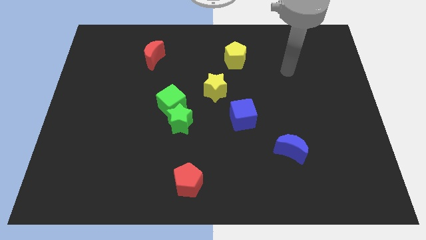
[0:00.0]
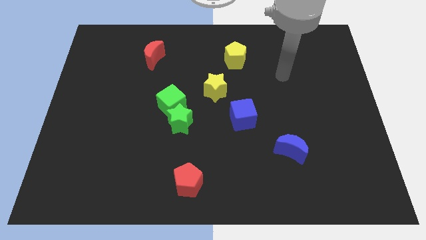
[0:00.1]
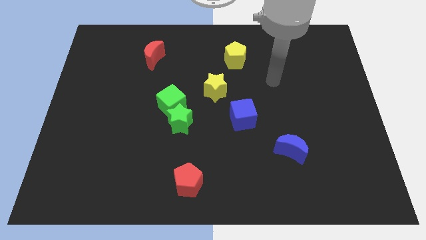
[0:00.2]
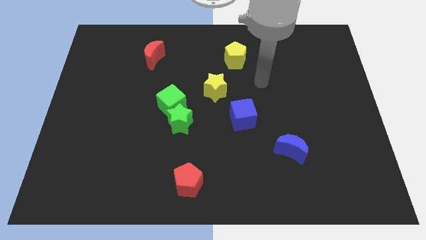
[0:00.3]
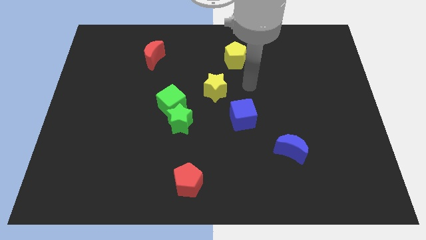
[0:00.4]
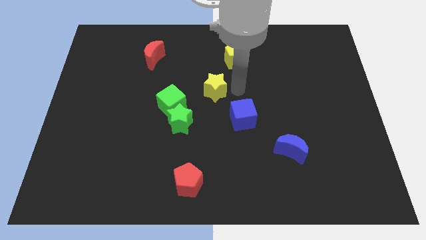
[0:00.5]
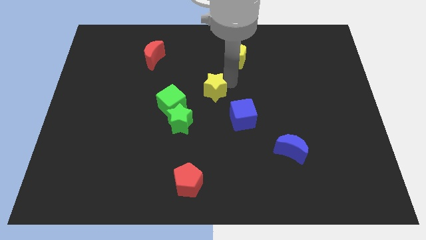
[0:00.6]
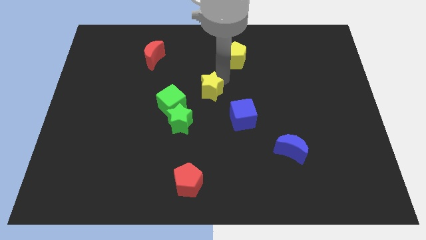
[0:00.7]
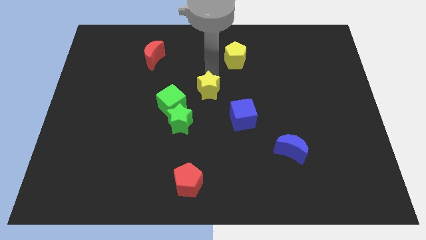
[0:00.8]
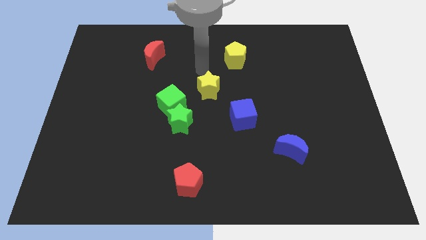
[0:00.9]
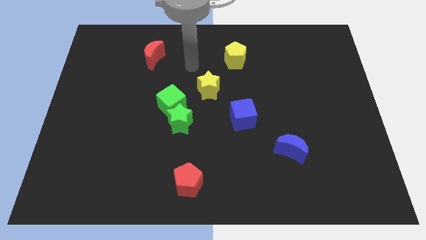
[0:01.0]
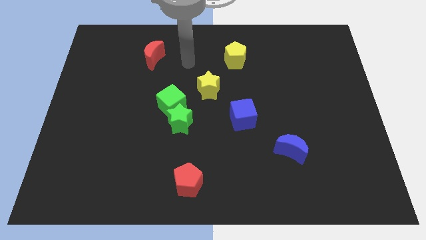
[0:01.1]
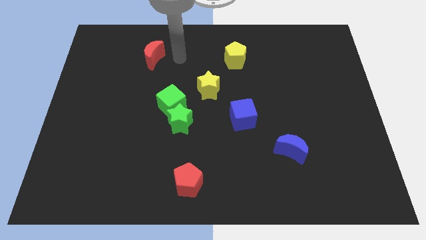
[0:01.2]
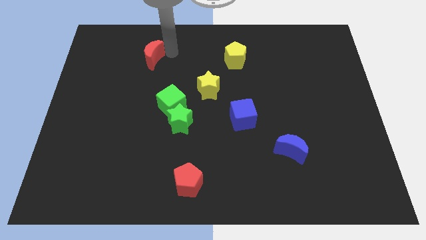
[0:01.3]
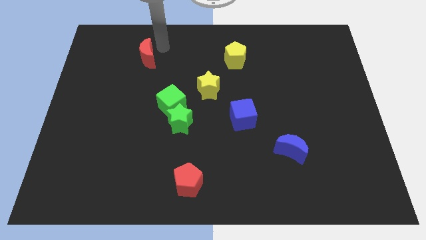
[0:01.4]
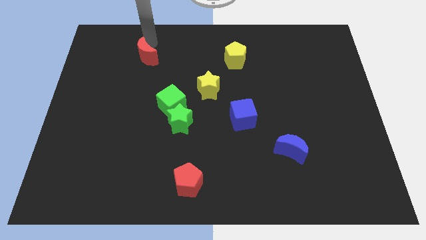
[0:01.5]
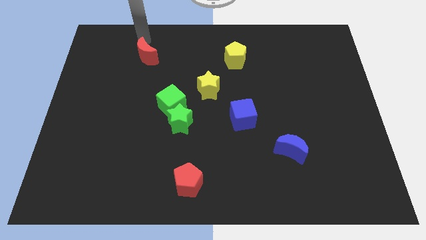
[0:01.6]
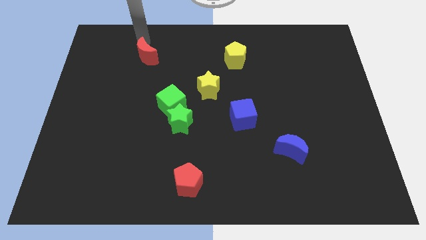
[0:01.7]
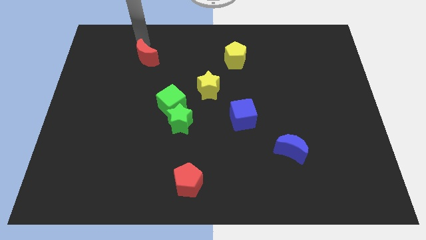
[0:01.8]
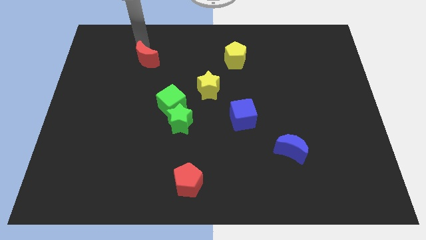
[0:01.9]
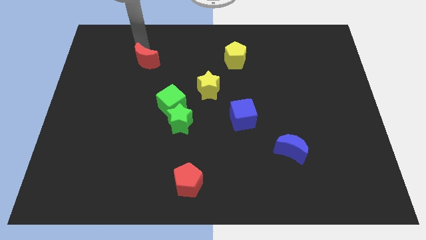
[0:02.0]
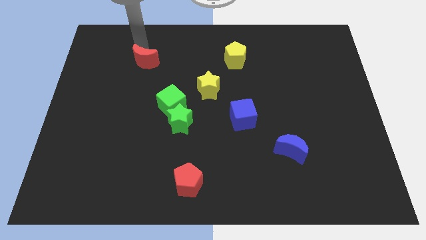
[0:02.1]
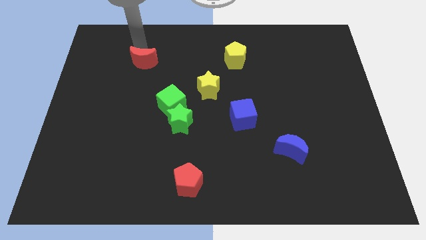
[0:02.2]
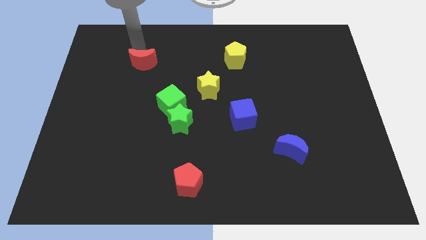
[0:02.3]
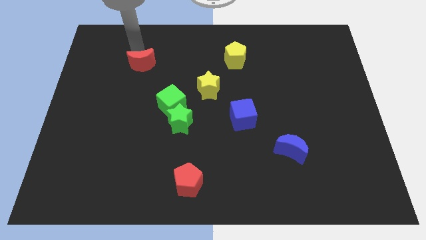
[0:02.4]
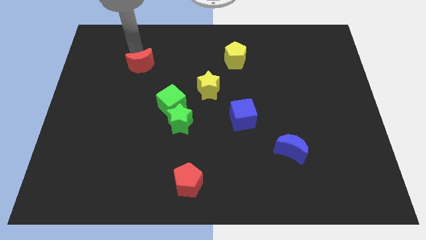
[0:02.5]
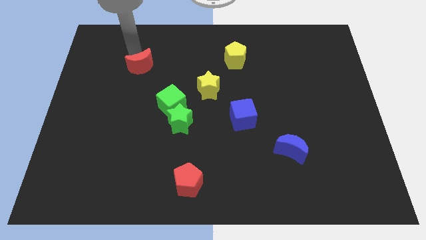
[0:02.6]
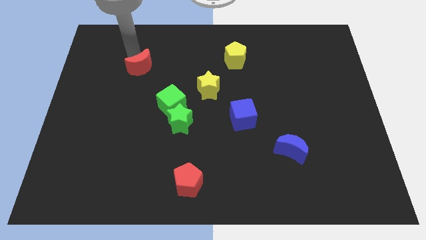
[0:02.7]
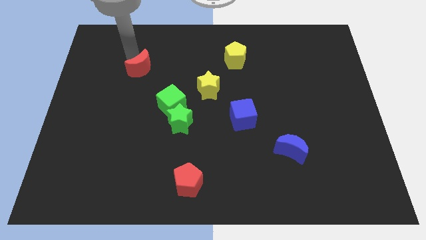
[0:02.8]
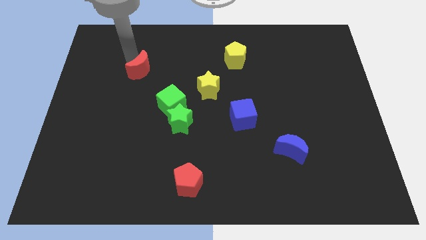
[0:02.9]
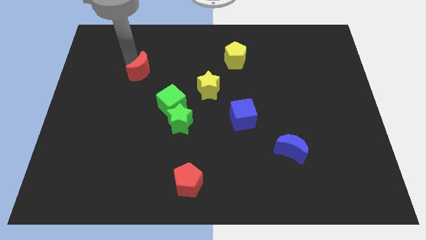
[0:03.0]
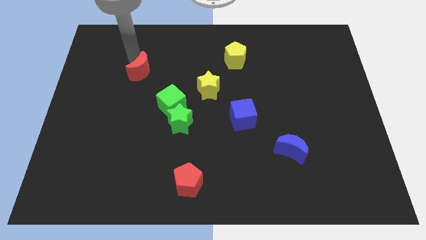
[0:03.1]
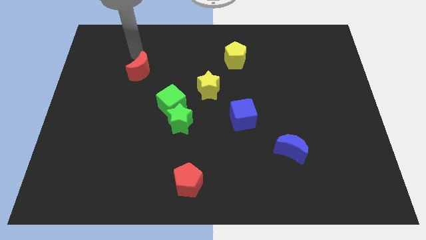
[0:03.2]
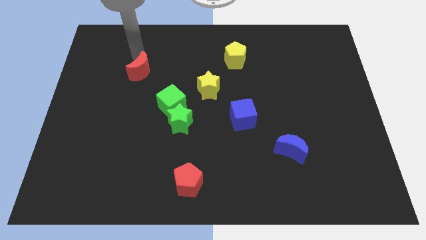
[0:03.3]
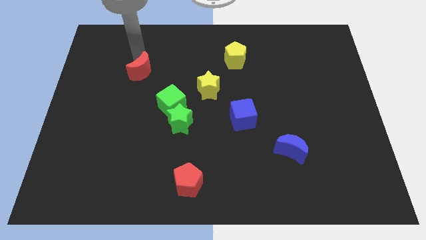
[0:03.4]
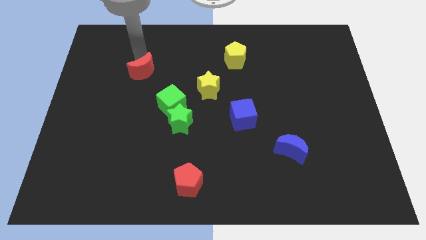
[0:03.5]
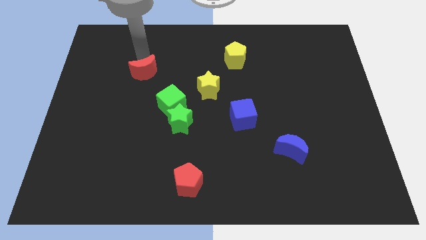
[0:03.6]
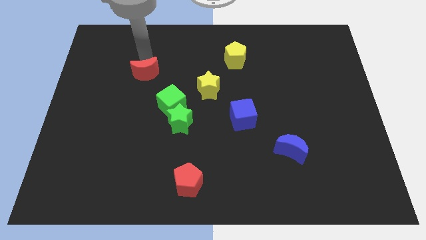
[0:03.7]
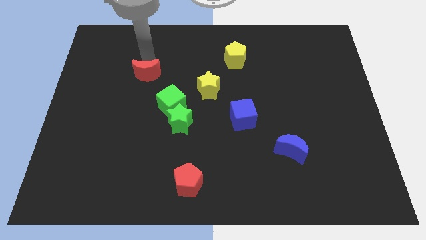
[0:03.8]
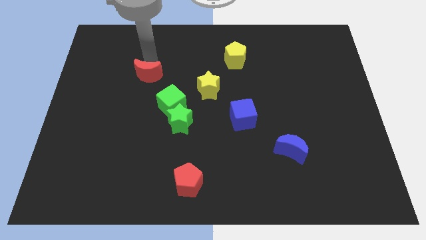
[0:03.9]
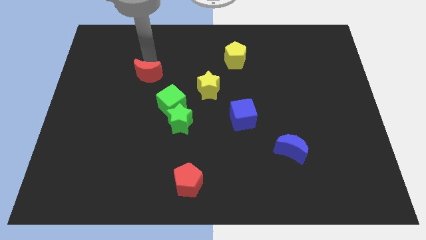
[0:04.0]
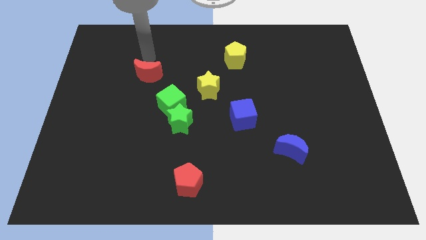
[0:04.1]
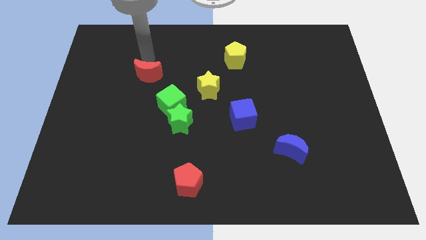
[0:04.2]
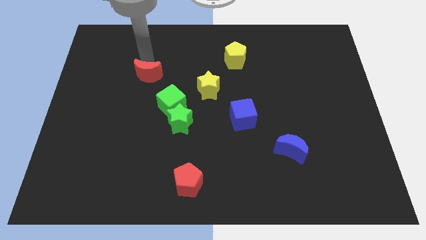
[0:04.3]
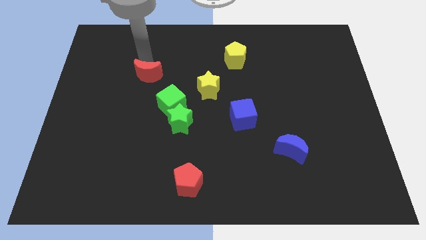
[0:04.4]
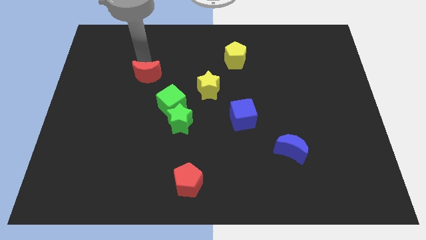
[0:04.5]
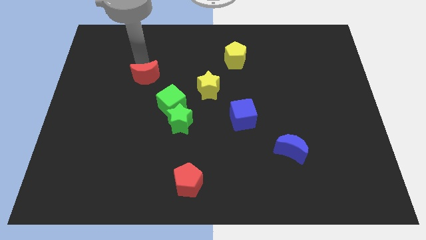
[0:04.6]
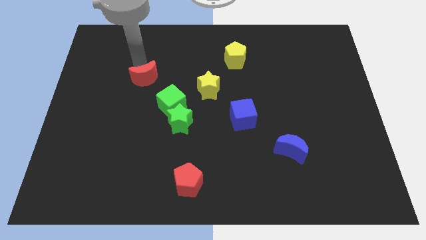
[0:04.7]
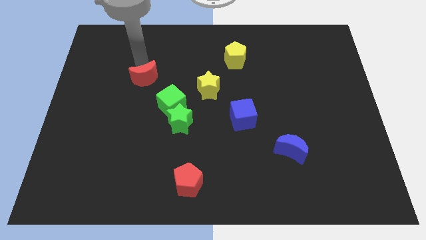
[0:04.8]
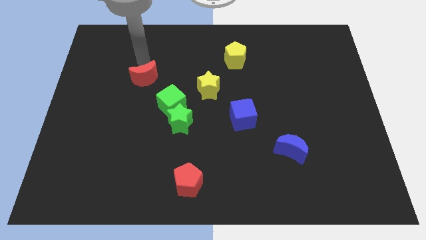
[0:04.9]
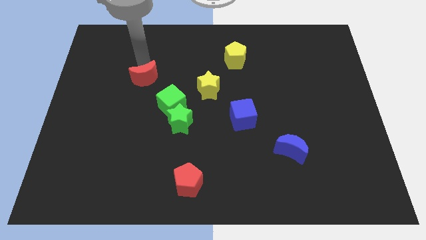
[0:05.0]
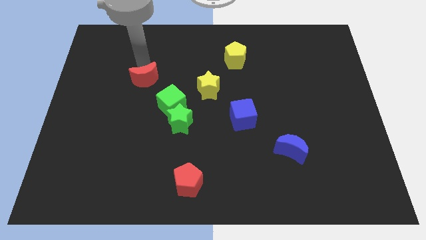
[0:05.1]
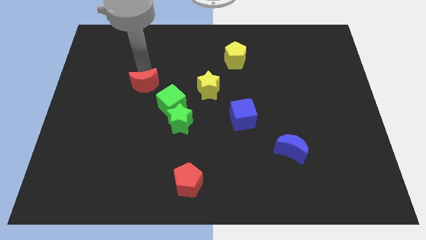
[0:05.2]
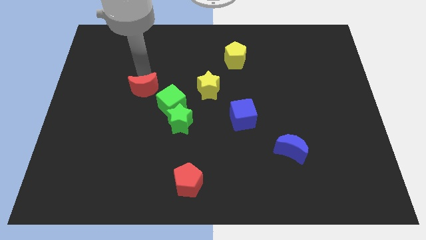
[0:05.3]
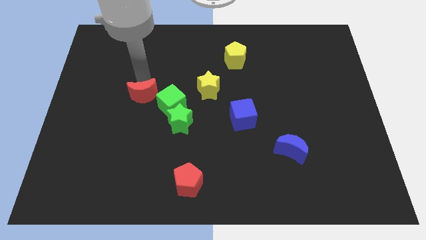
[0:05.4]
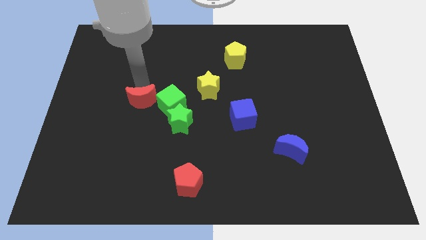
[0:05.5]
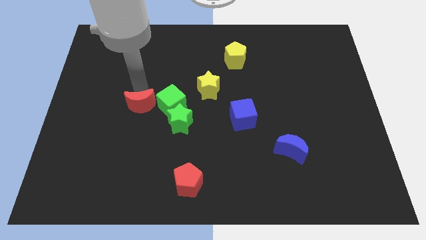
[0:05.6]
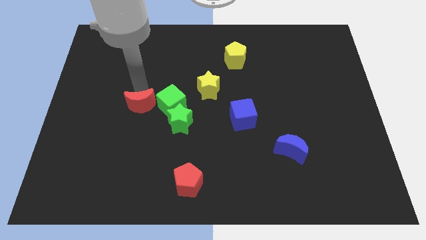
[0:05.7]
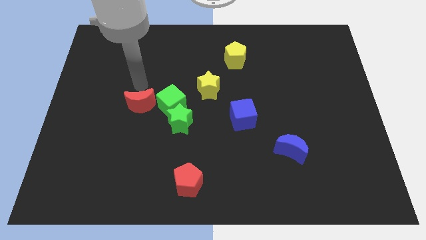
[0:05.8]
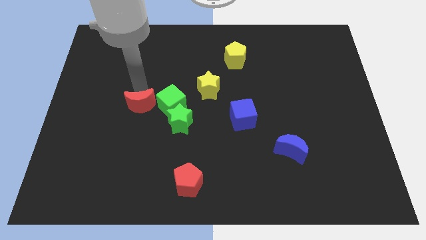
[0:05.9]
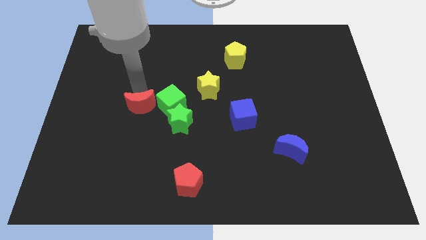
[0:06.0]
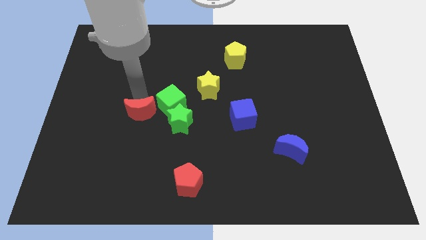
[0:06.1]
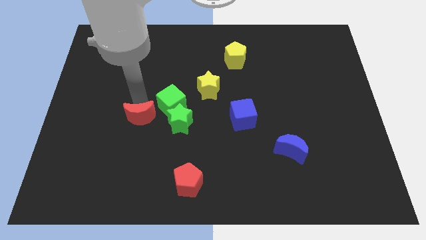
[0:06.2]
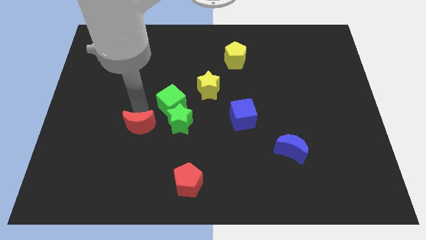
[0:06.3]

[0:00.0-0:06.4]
move the red moon downwards

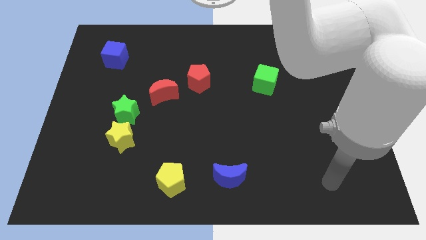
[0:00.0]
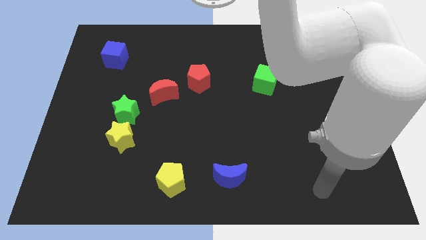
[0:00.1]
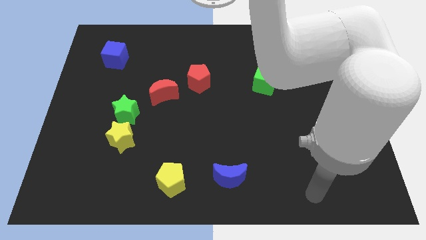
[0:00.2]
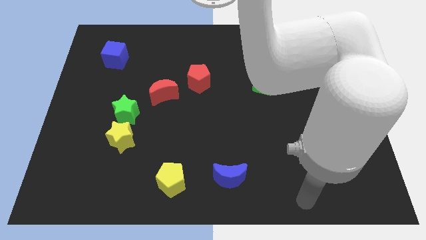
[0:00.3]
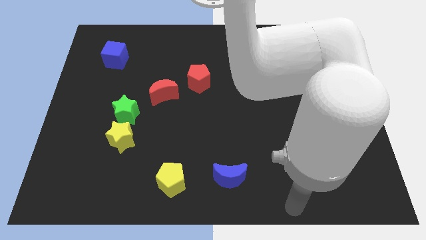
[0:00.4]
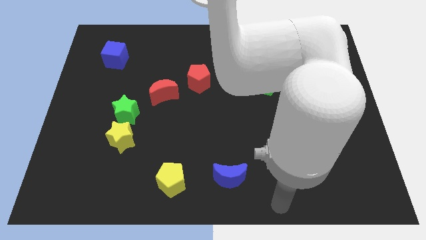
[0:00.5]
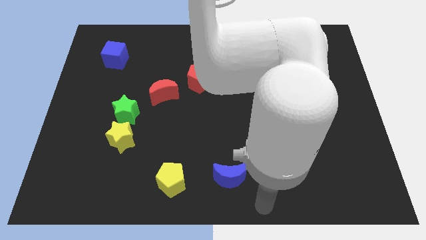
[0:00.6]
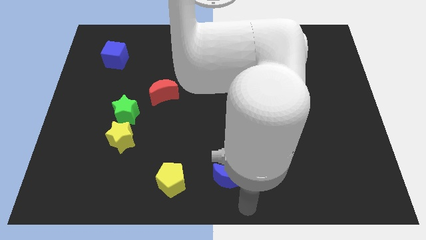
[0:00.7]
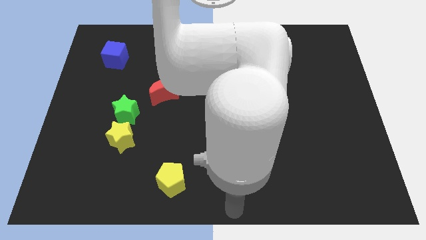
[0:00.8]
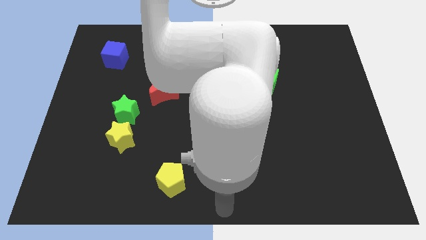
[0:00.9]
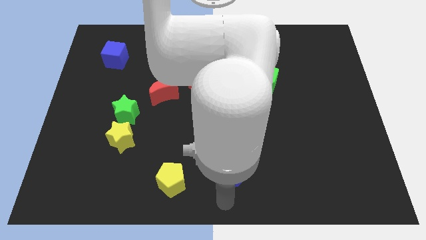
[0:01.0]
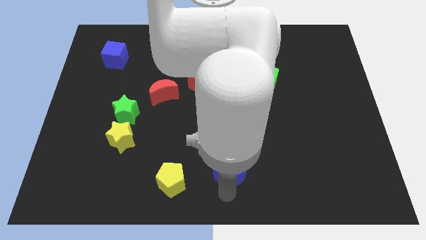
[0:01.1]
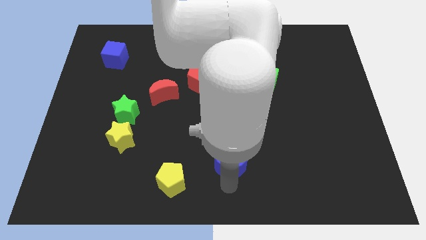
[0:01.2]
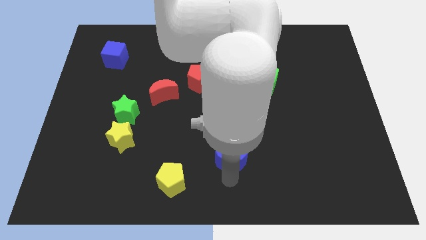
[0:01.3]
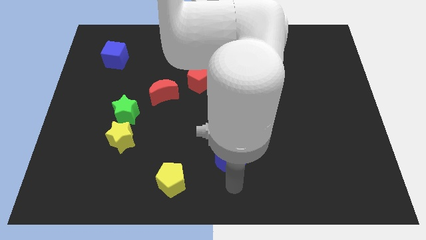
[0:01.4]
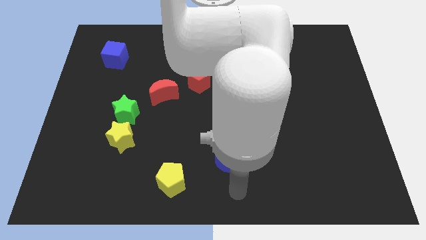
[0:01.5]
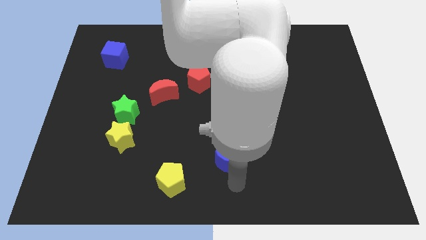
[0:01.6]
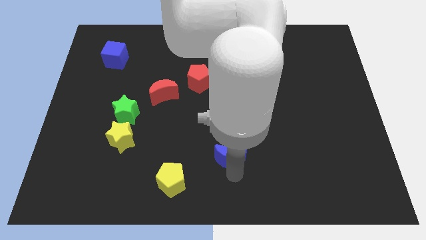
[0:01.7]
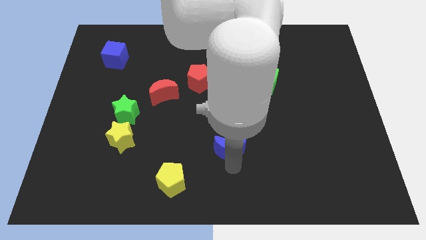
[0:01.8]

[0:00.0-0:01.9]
push the blue moon up slightly
